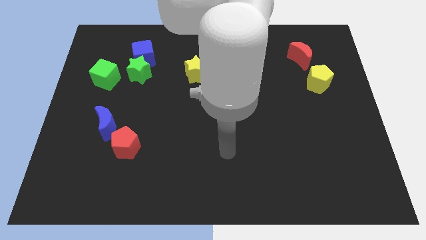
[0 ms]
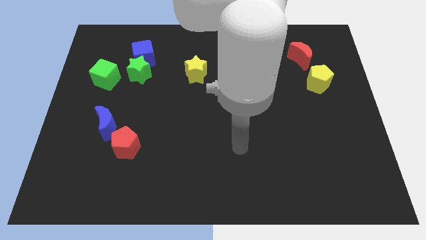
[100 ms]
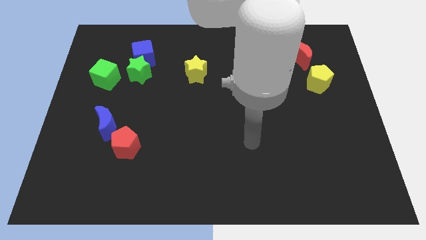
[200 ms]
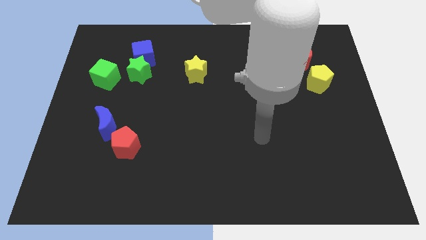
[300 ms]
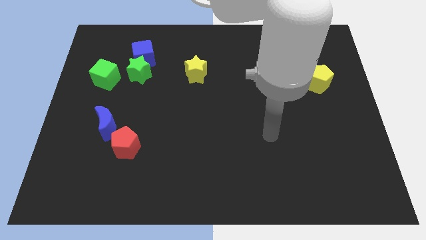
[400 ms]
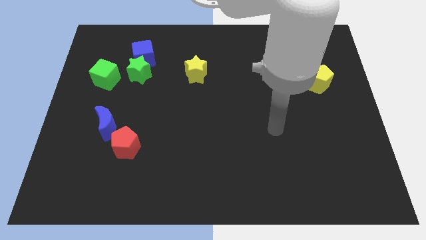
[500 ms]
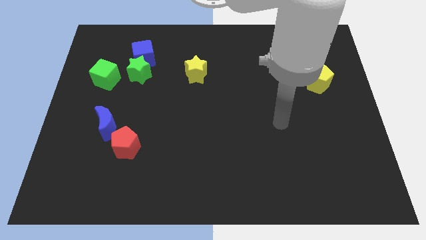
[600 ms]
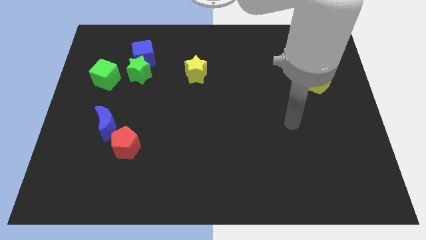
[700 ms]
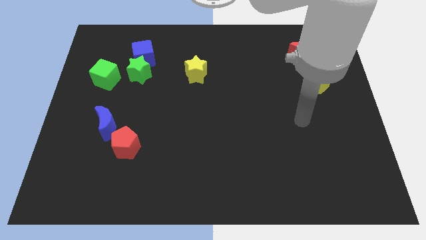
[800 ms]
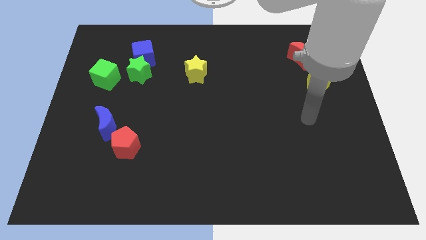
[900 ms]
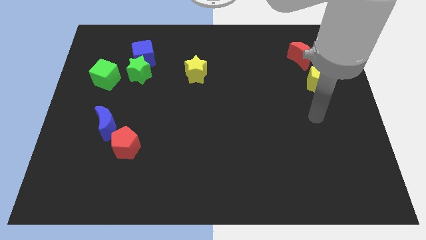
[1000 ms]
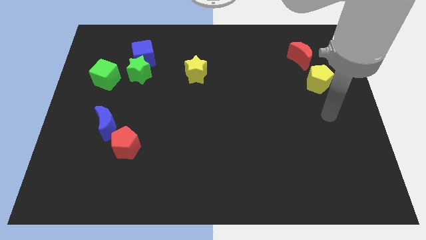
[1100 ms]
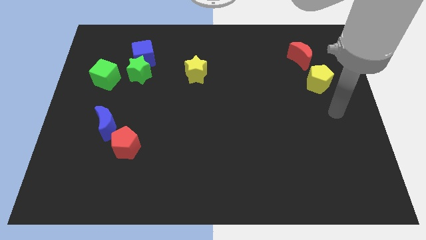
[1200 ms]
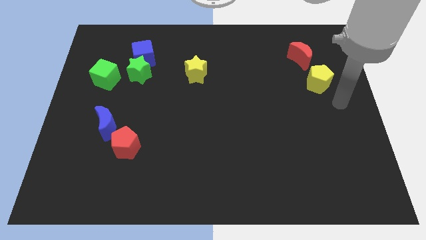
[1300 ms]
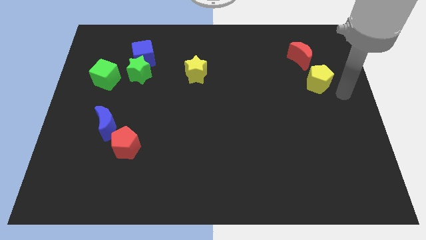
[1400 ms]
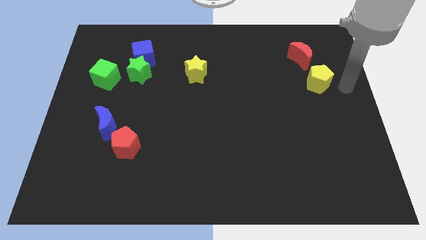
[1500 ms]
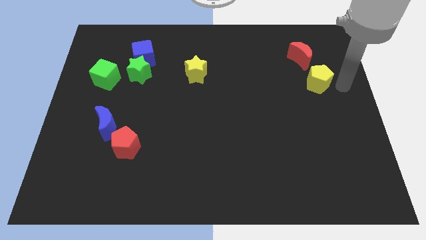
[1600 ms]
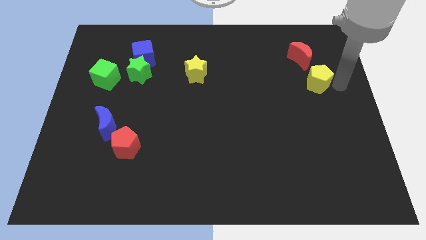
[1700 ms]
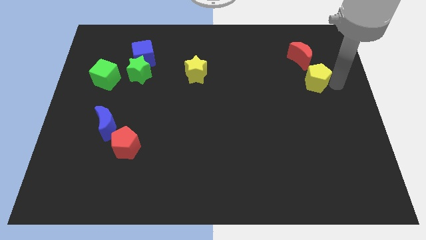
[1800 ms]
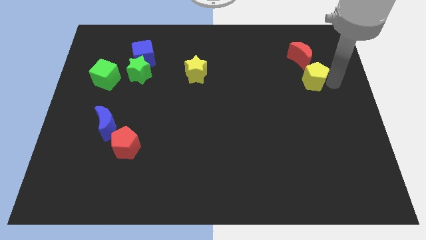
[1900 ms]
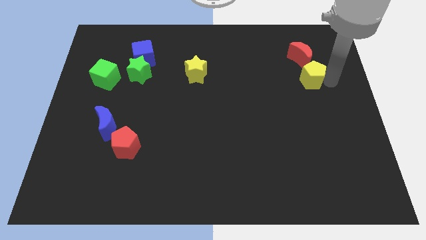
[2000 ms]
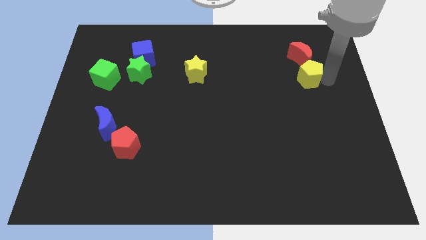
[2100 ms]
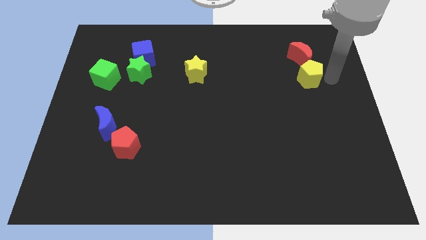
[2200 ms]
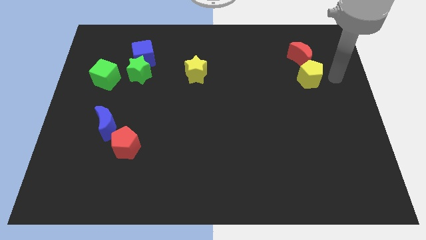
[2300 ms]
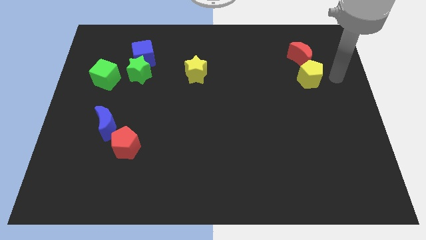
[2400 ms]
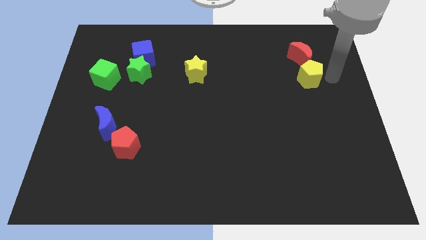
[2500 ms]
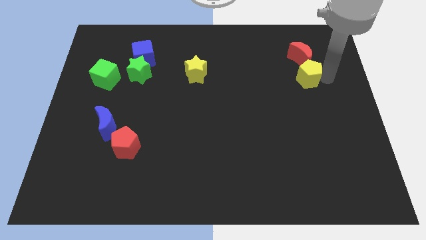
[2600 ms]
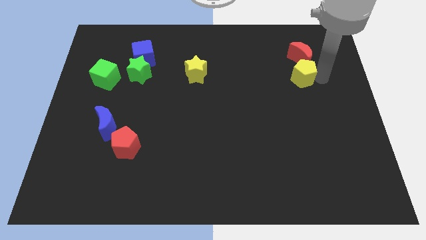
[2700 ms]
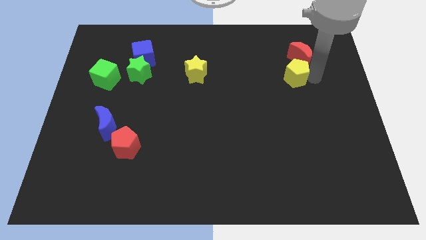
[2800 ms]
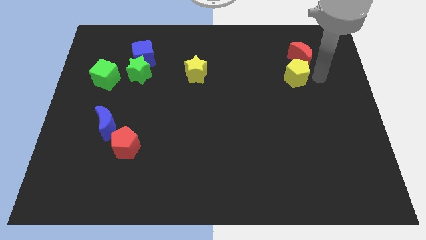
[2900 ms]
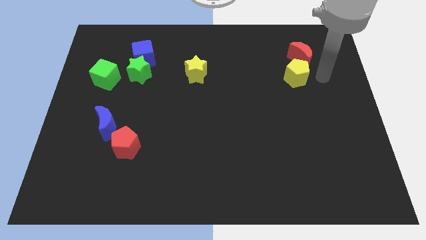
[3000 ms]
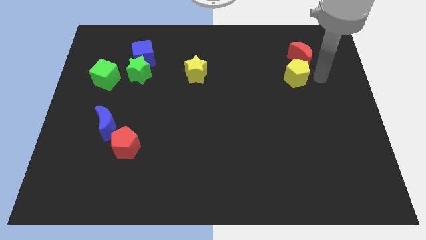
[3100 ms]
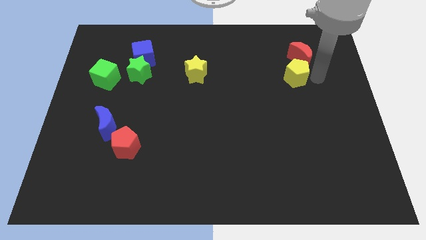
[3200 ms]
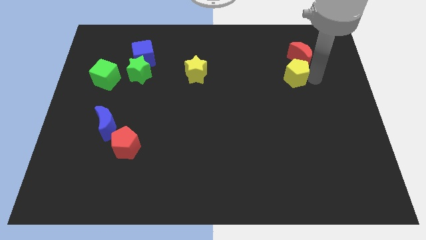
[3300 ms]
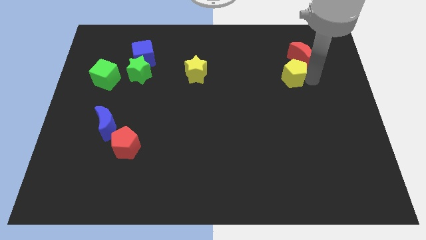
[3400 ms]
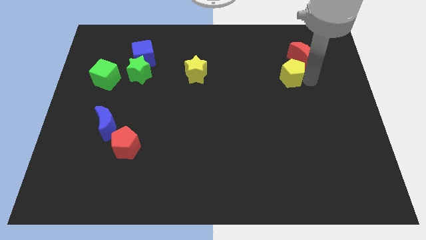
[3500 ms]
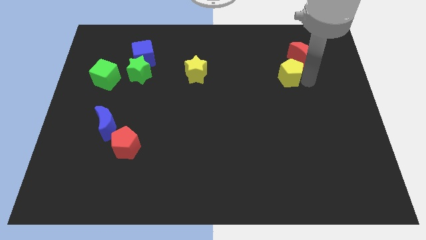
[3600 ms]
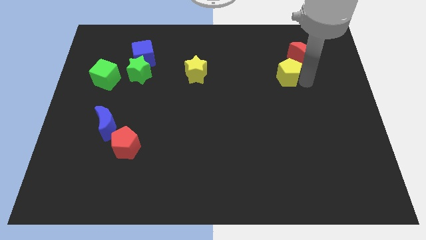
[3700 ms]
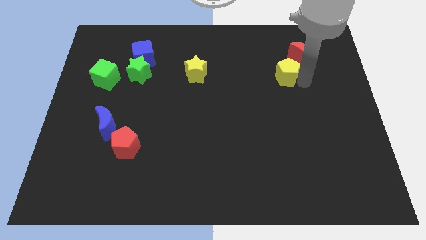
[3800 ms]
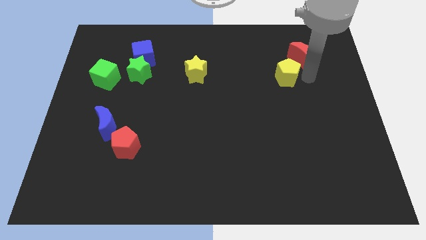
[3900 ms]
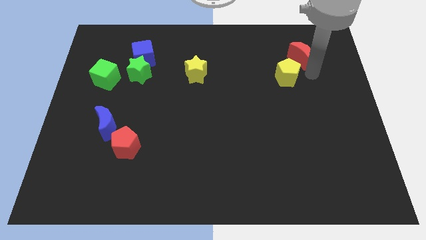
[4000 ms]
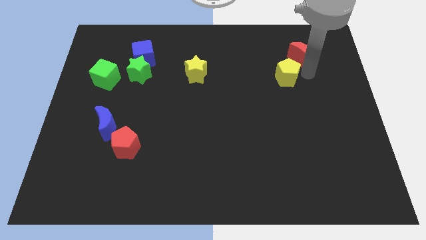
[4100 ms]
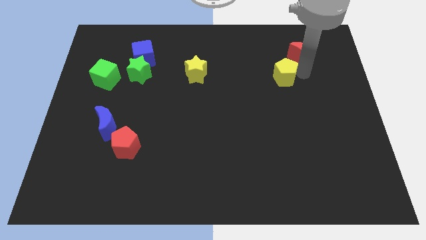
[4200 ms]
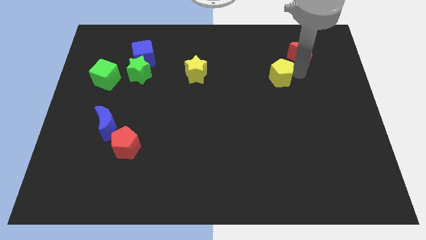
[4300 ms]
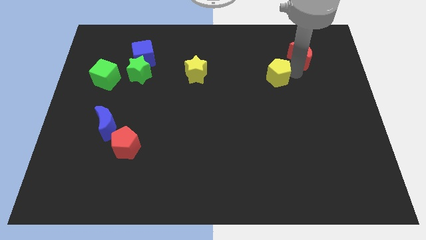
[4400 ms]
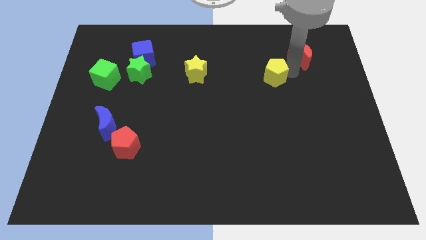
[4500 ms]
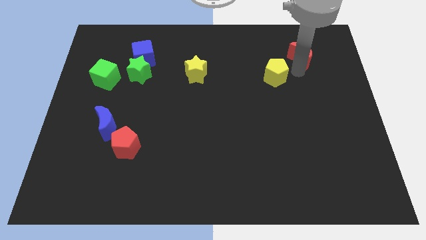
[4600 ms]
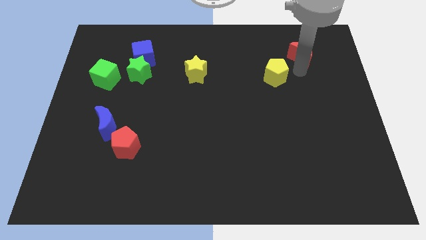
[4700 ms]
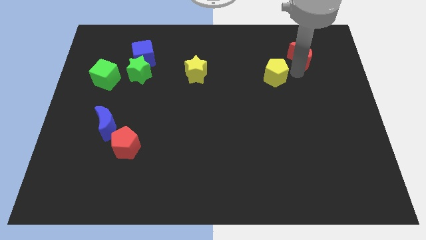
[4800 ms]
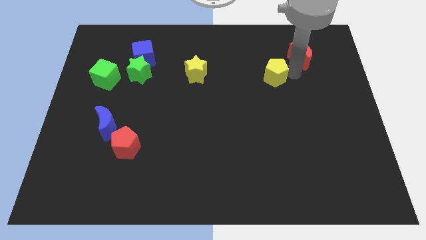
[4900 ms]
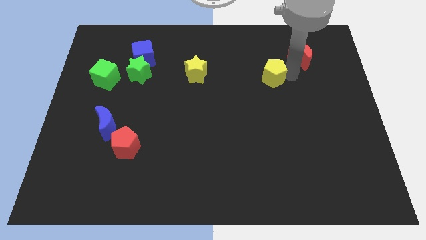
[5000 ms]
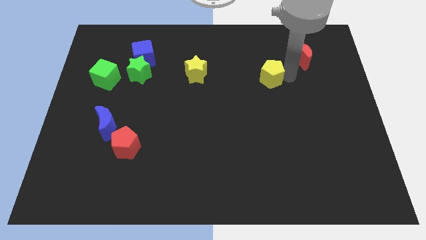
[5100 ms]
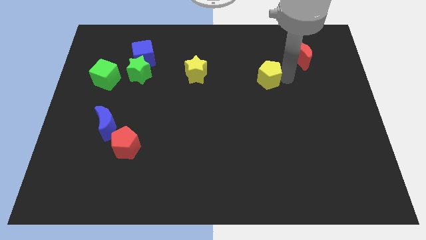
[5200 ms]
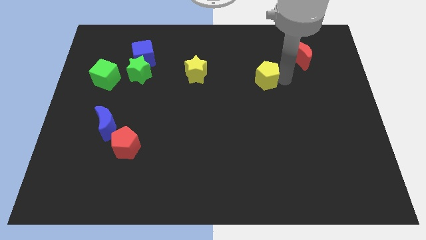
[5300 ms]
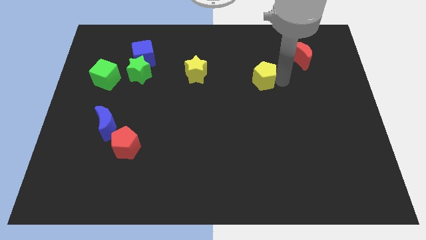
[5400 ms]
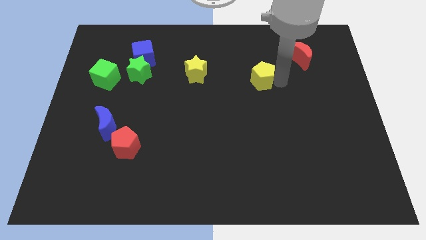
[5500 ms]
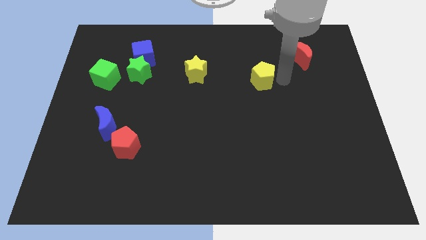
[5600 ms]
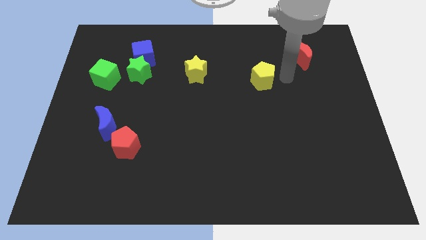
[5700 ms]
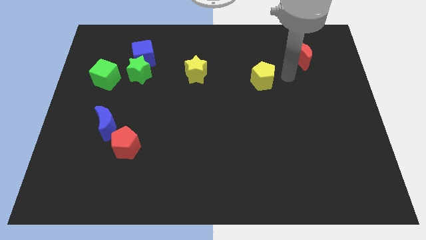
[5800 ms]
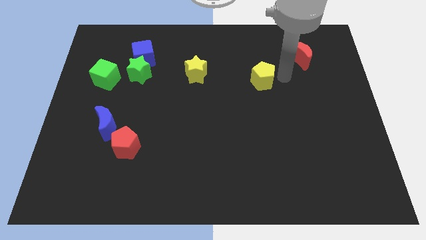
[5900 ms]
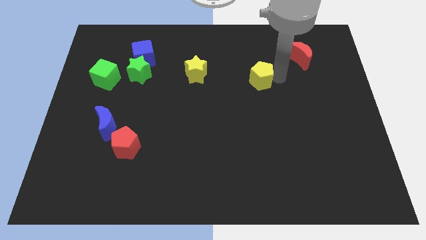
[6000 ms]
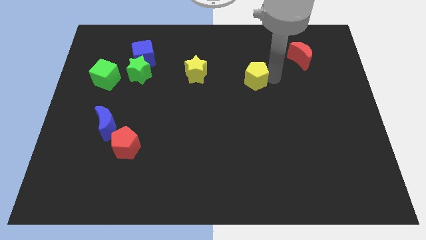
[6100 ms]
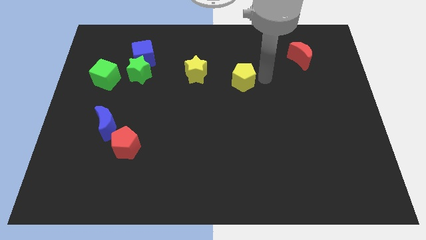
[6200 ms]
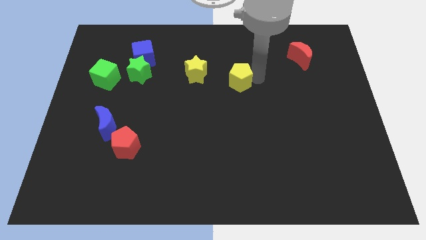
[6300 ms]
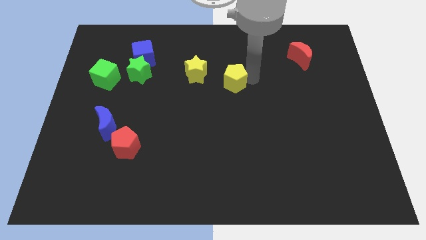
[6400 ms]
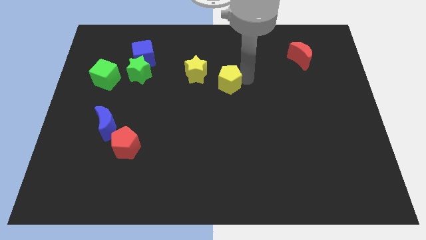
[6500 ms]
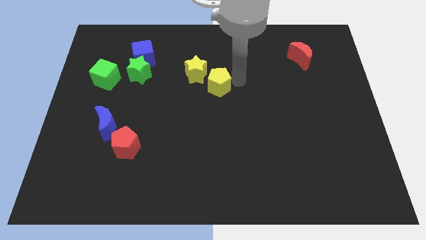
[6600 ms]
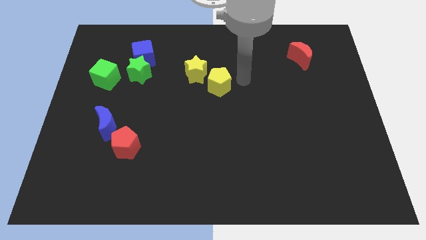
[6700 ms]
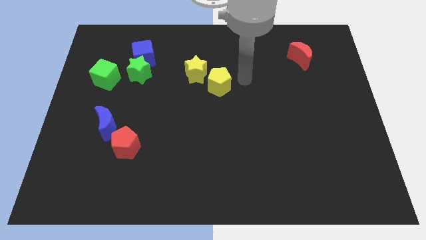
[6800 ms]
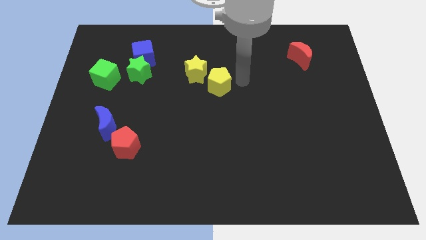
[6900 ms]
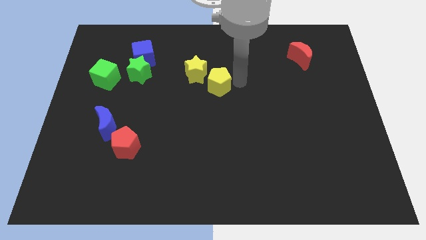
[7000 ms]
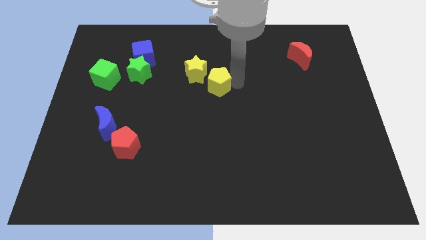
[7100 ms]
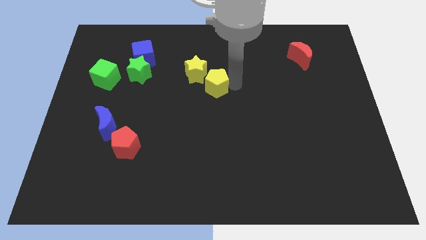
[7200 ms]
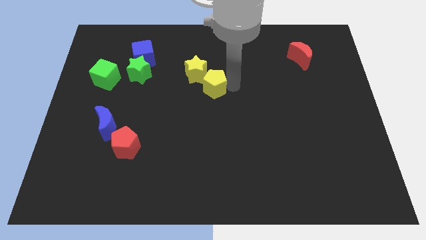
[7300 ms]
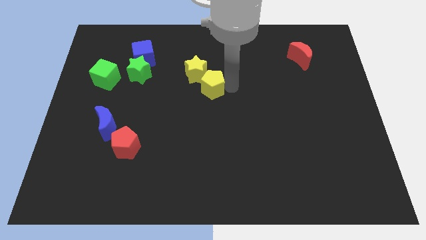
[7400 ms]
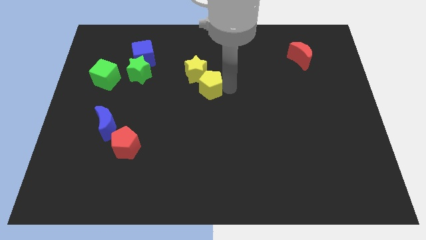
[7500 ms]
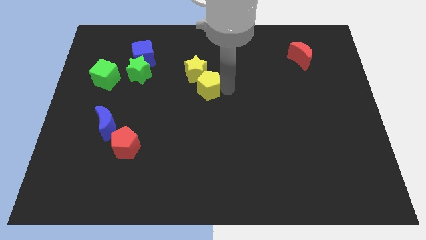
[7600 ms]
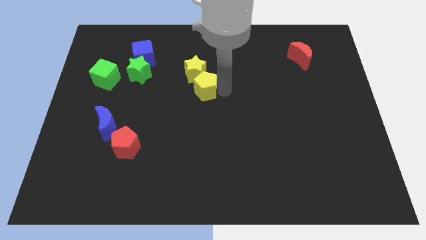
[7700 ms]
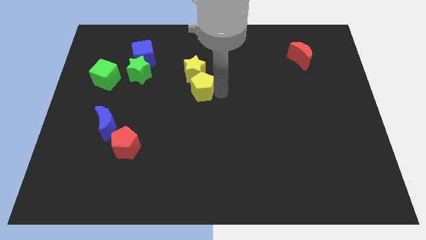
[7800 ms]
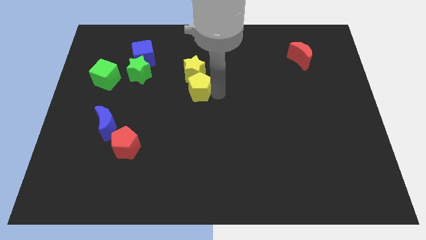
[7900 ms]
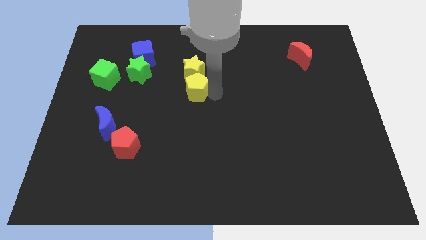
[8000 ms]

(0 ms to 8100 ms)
push the yellow pentagon to the bottom left of the yellow star
